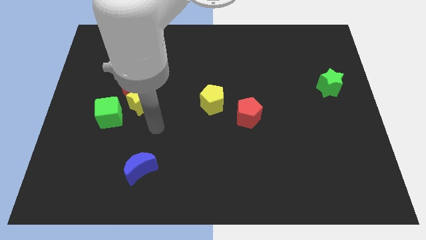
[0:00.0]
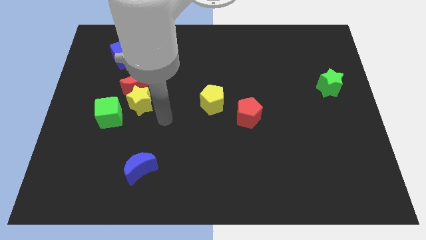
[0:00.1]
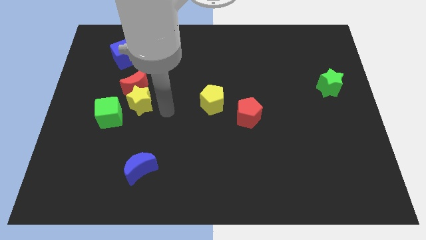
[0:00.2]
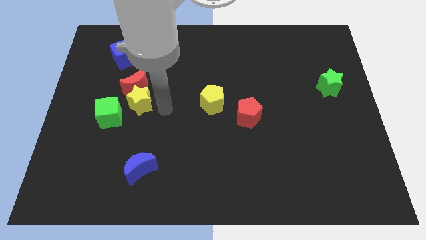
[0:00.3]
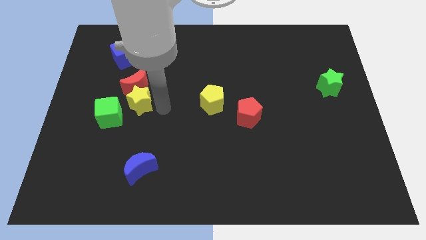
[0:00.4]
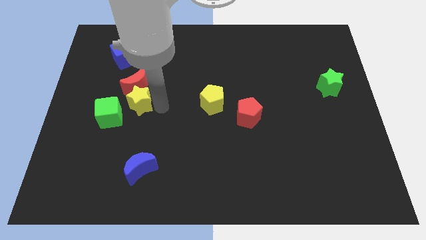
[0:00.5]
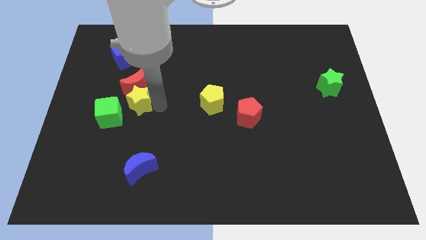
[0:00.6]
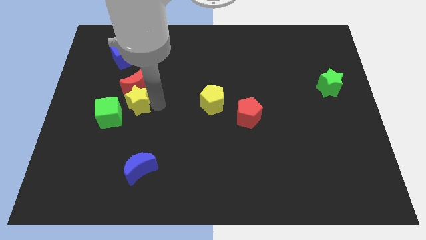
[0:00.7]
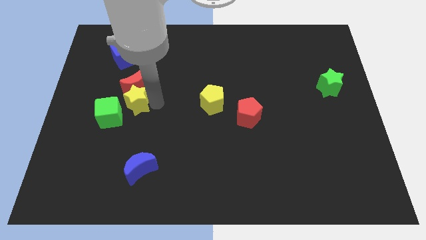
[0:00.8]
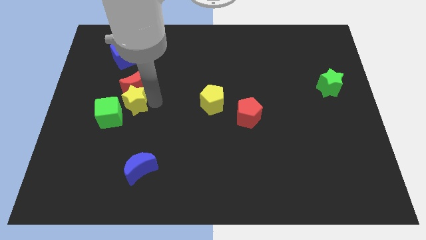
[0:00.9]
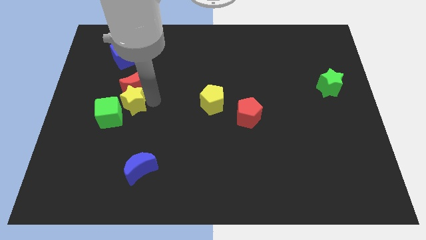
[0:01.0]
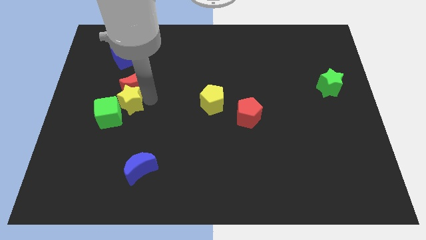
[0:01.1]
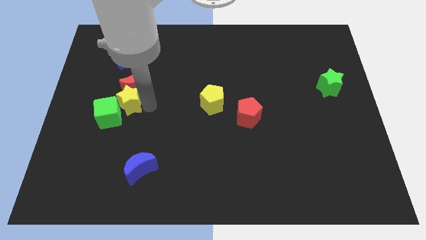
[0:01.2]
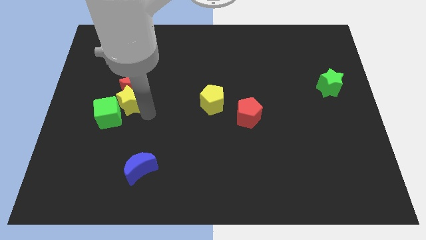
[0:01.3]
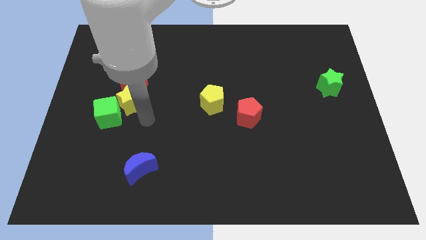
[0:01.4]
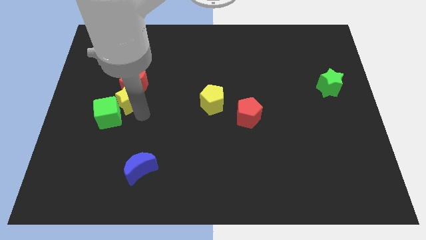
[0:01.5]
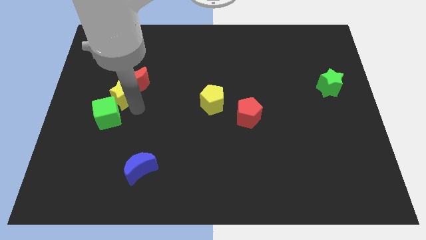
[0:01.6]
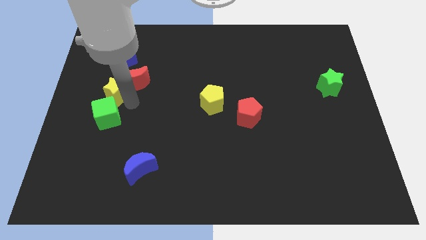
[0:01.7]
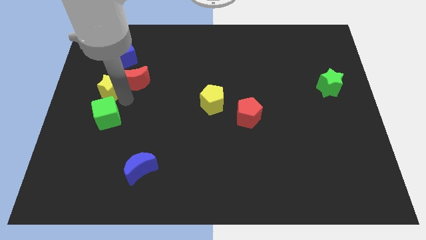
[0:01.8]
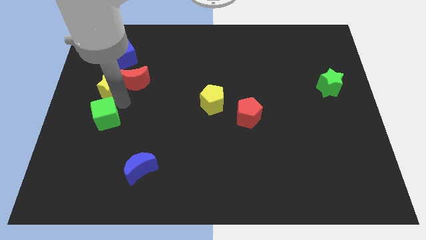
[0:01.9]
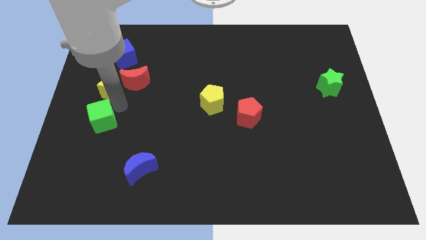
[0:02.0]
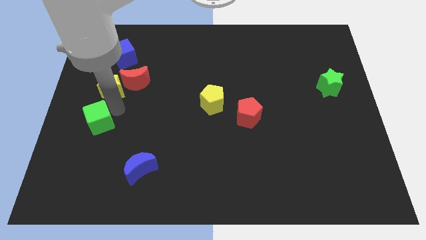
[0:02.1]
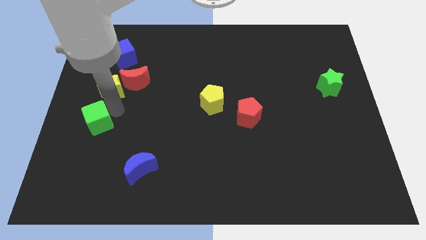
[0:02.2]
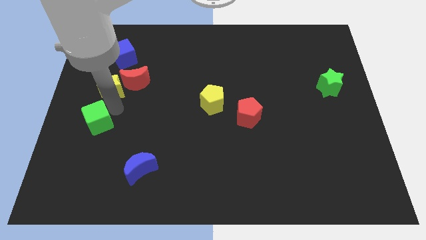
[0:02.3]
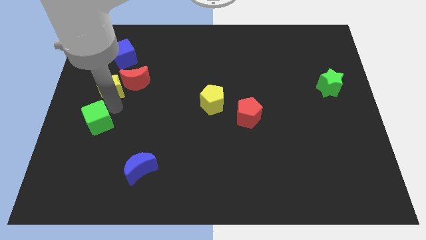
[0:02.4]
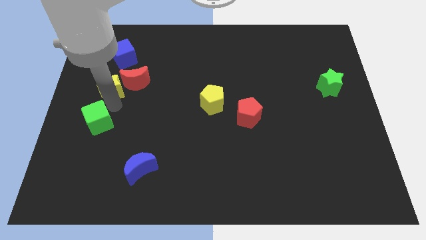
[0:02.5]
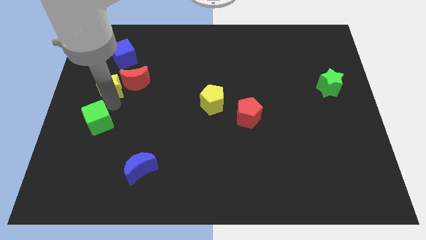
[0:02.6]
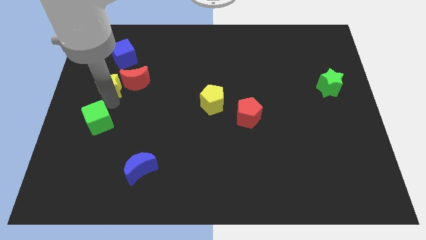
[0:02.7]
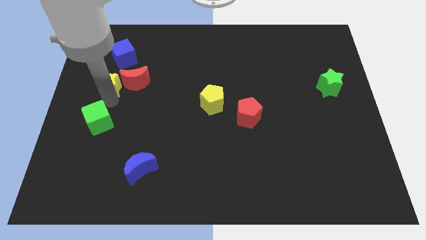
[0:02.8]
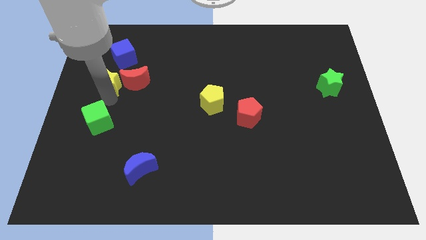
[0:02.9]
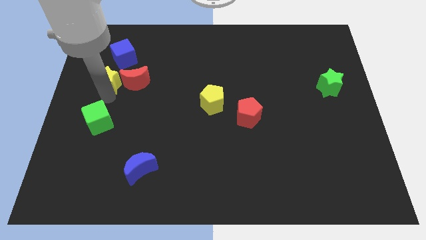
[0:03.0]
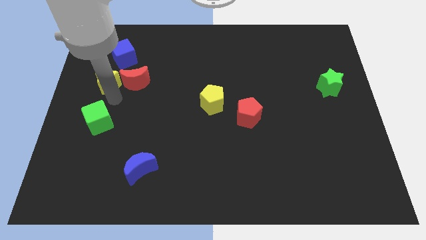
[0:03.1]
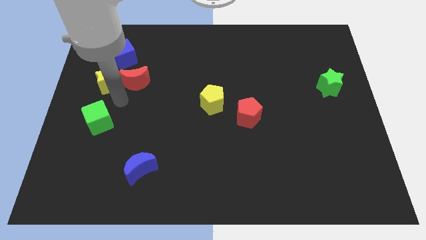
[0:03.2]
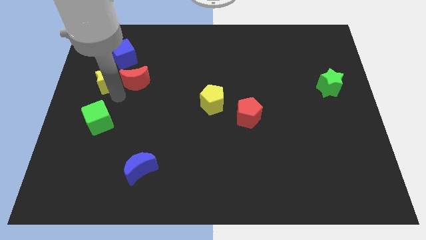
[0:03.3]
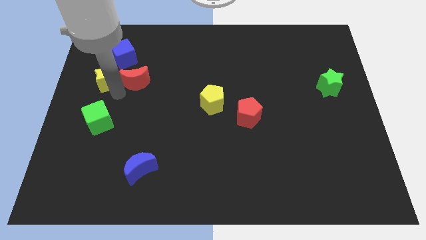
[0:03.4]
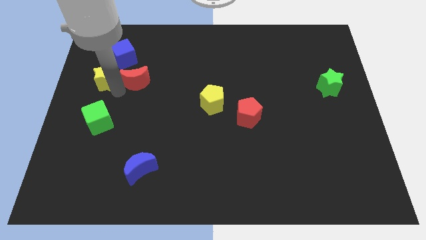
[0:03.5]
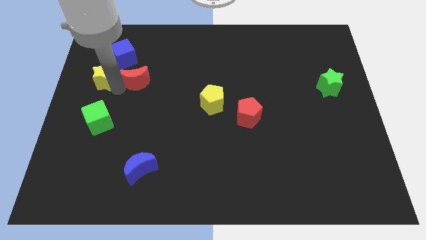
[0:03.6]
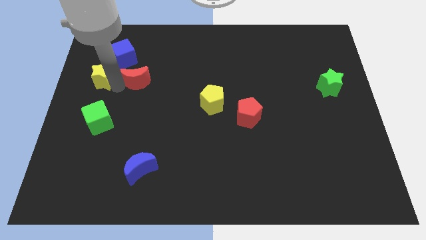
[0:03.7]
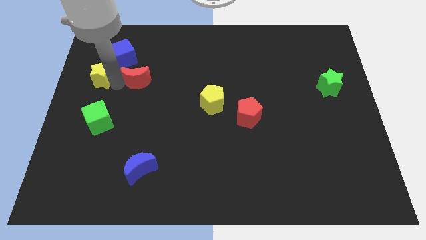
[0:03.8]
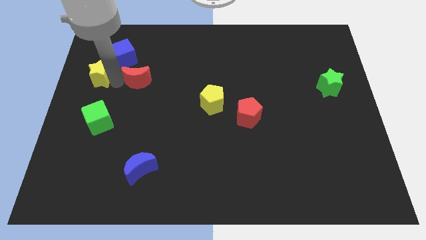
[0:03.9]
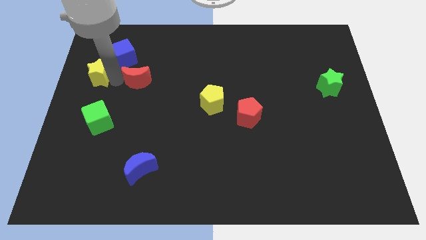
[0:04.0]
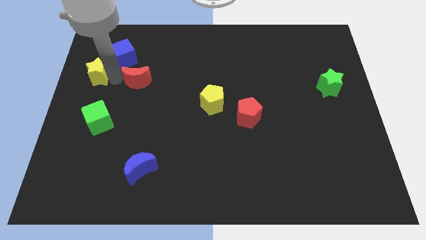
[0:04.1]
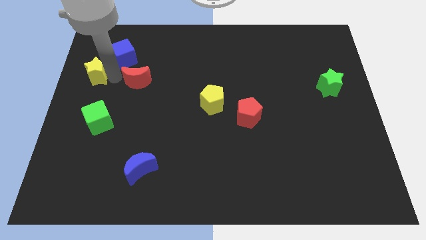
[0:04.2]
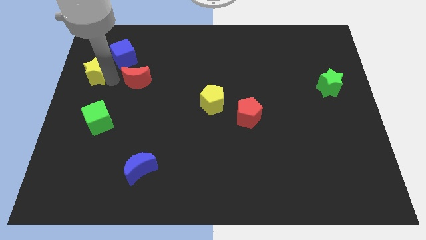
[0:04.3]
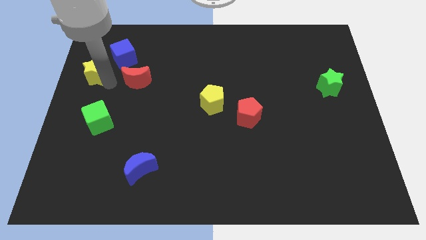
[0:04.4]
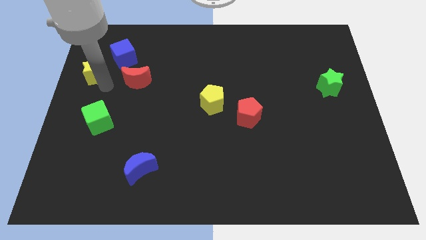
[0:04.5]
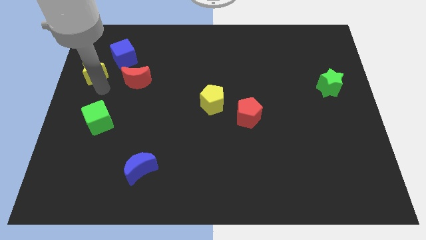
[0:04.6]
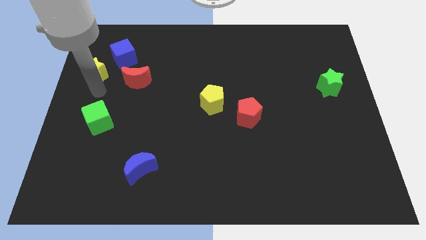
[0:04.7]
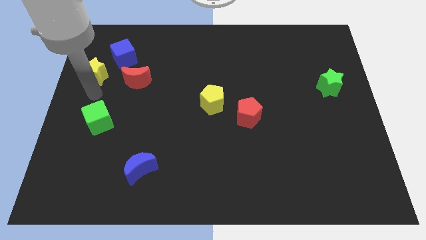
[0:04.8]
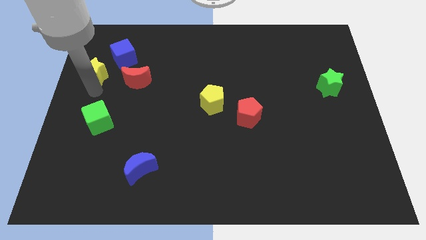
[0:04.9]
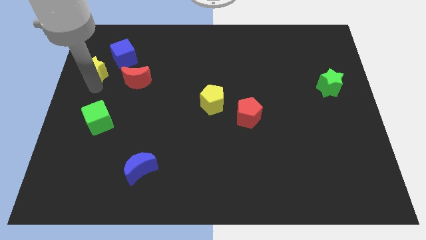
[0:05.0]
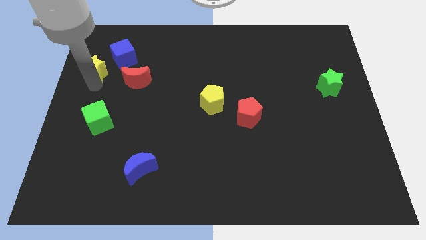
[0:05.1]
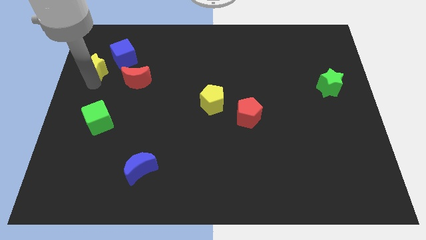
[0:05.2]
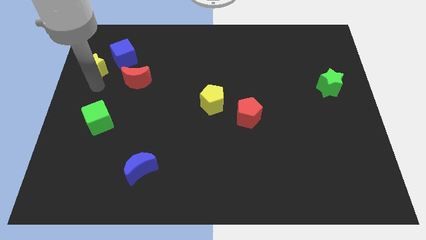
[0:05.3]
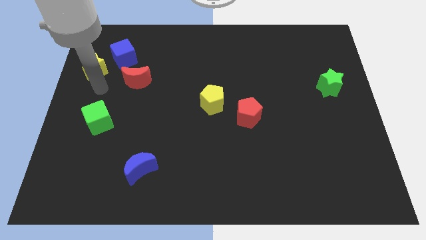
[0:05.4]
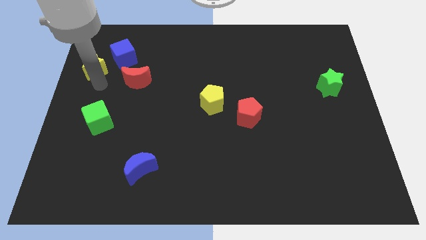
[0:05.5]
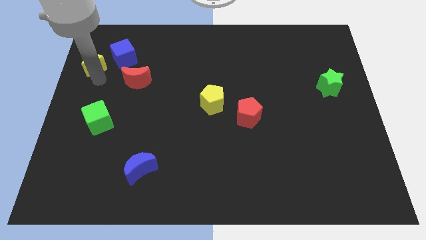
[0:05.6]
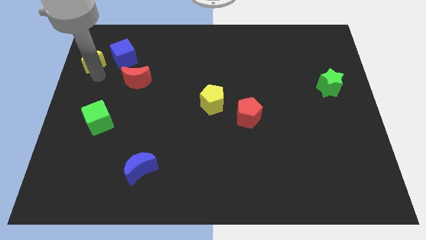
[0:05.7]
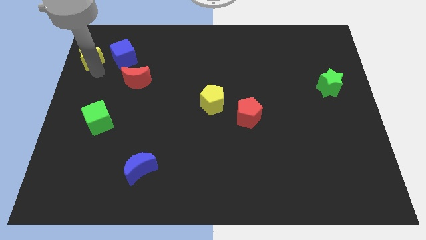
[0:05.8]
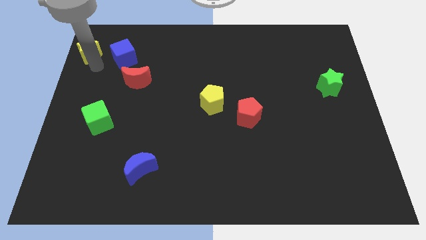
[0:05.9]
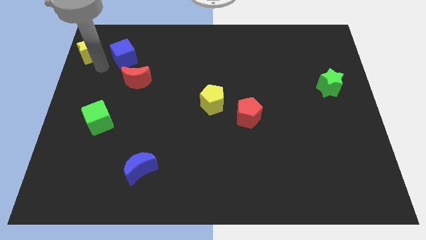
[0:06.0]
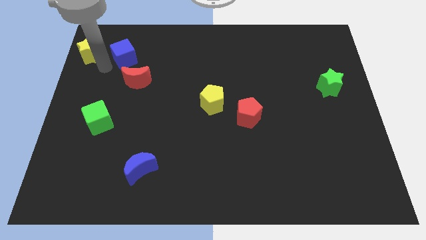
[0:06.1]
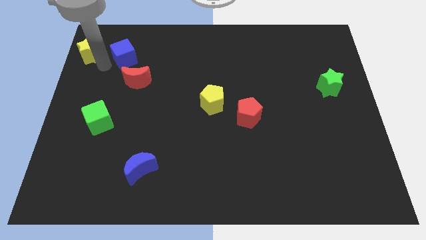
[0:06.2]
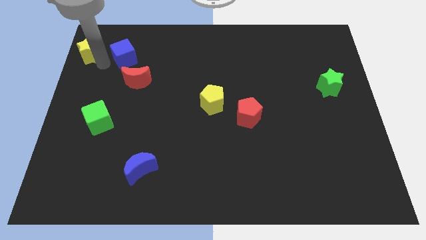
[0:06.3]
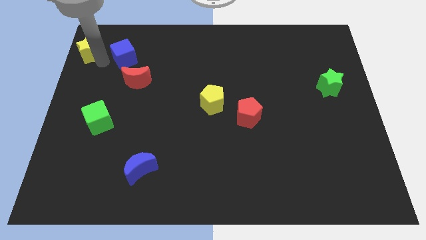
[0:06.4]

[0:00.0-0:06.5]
push the yellow star to the upper left corner

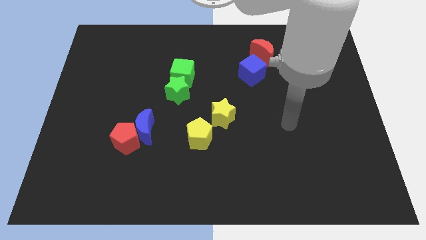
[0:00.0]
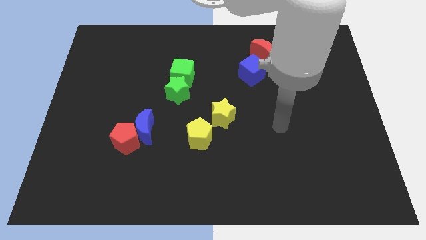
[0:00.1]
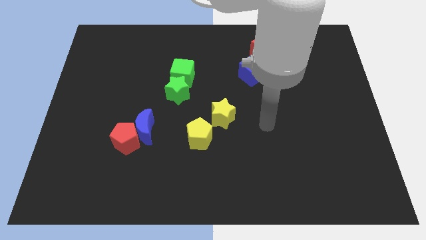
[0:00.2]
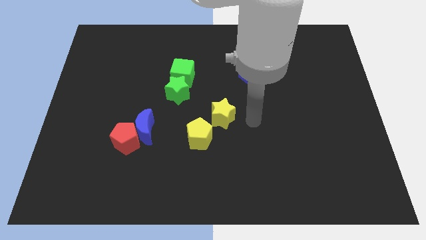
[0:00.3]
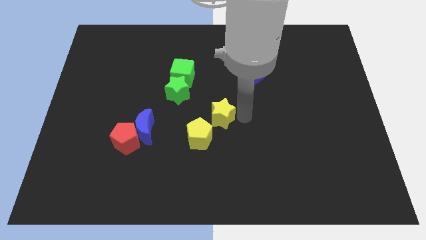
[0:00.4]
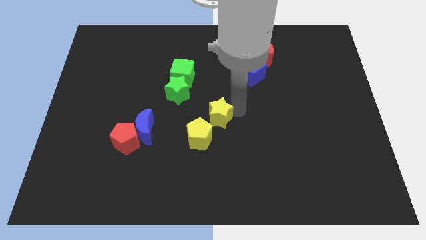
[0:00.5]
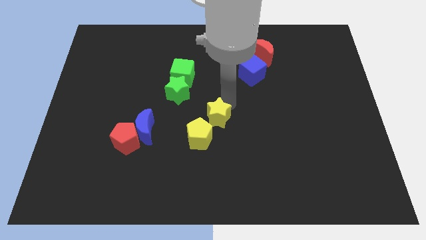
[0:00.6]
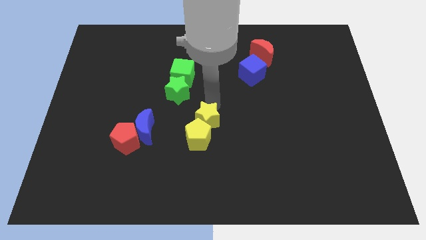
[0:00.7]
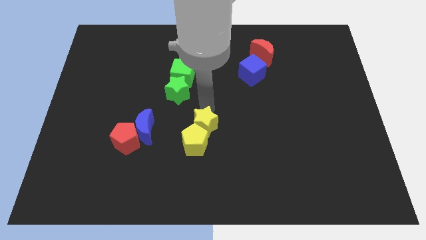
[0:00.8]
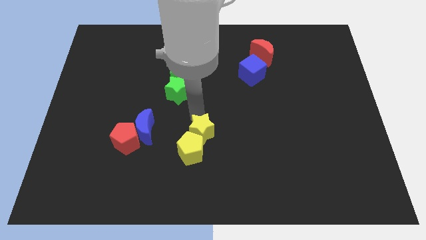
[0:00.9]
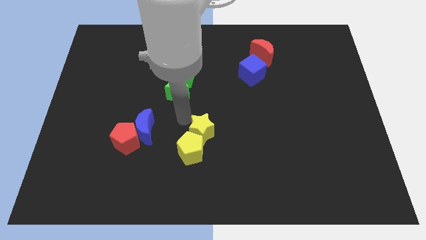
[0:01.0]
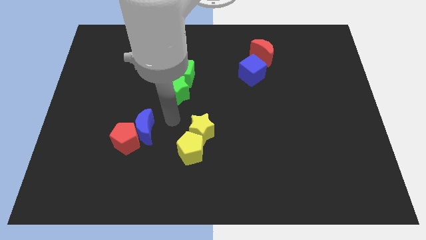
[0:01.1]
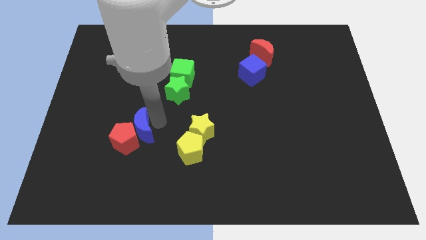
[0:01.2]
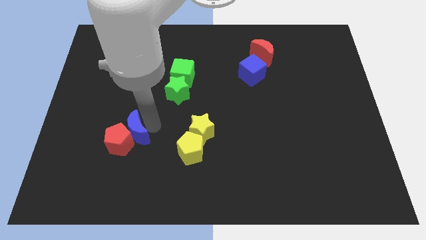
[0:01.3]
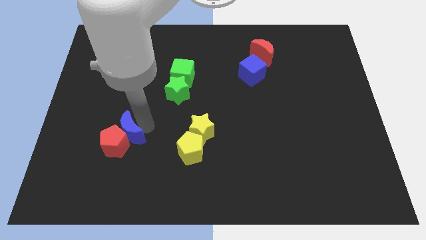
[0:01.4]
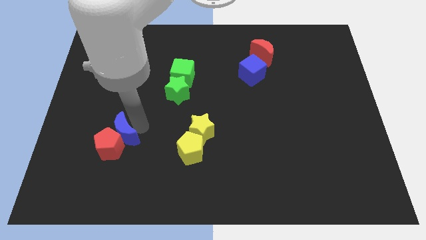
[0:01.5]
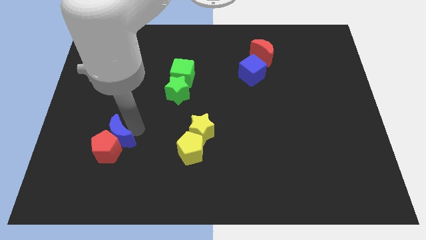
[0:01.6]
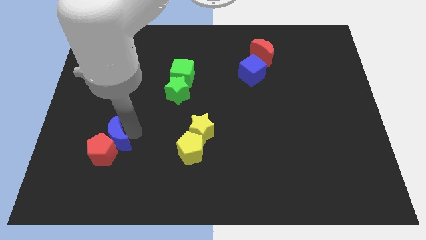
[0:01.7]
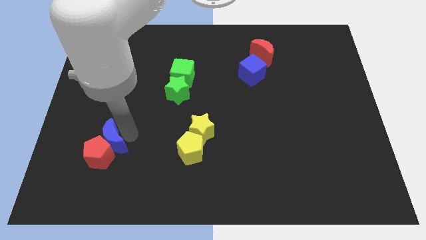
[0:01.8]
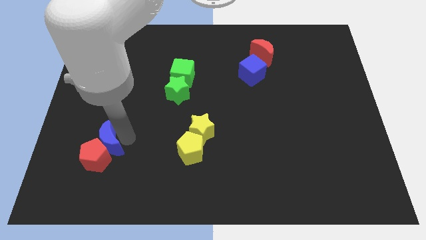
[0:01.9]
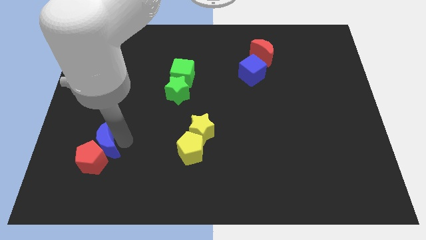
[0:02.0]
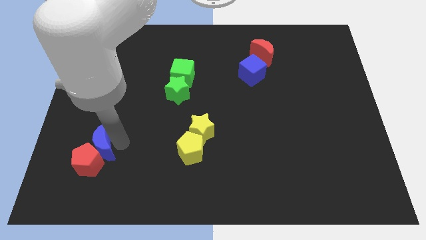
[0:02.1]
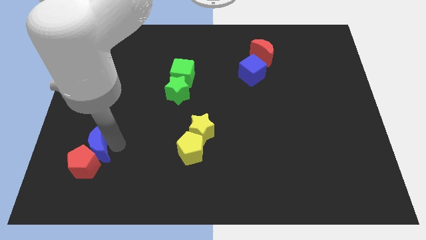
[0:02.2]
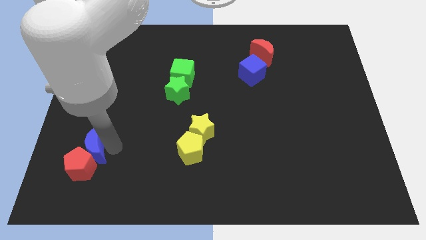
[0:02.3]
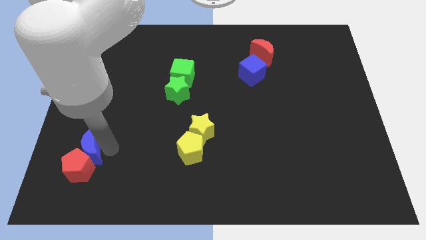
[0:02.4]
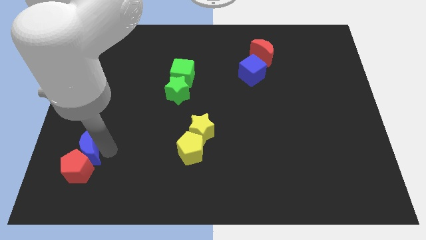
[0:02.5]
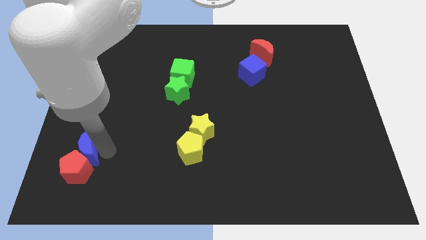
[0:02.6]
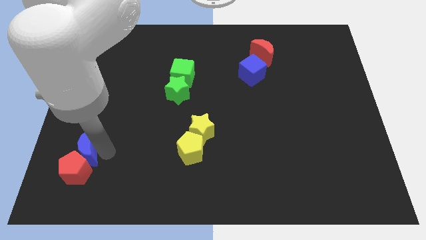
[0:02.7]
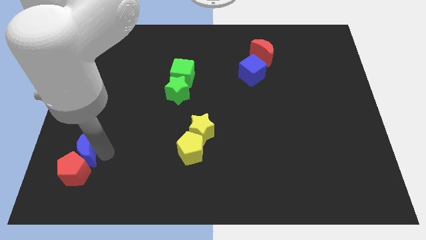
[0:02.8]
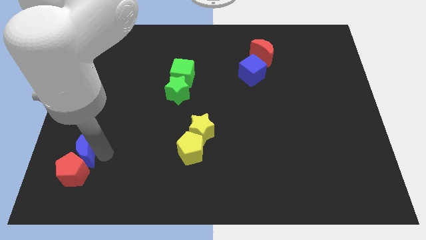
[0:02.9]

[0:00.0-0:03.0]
move the red pentagon to the lower left corner
